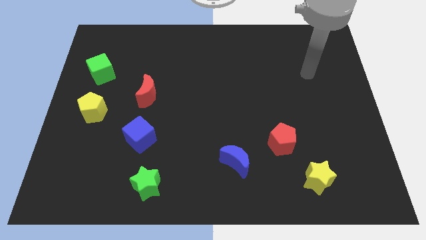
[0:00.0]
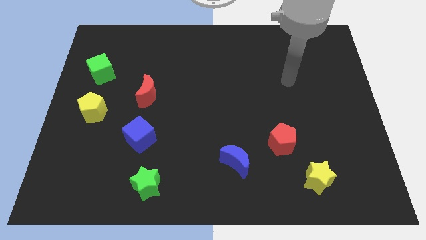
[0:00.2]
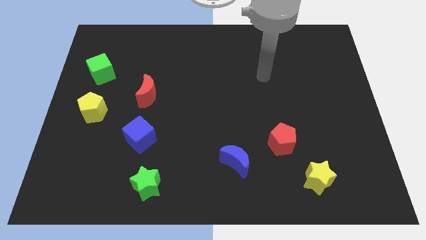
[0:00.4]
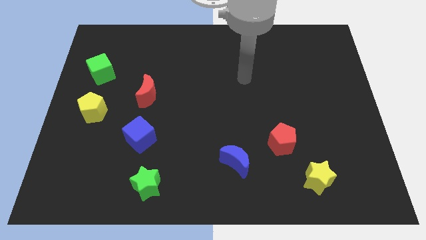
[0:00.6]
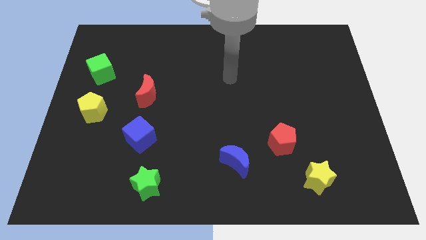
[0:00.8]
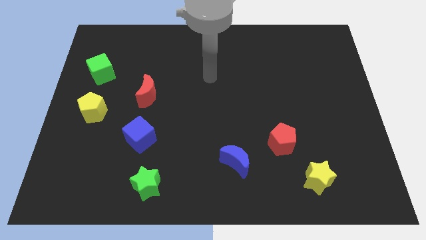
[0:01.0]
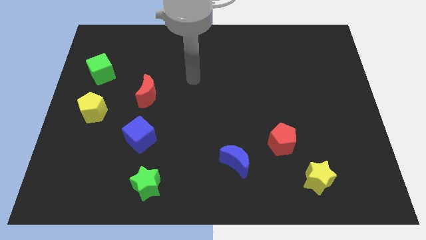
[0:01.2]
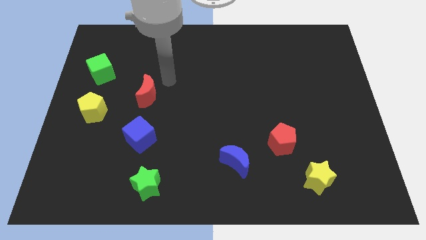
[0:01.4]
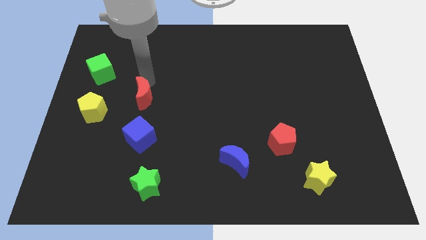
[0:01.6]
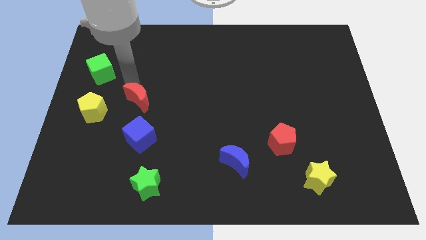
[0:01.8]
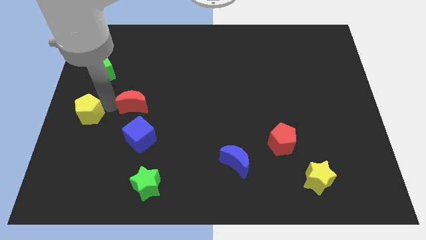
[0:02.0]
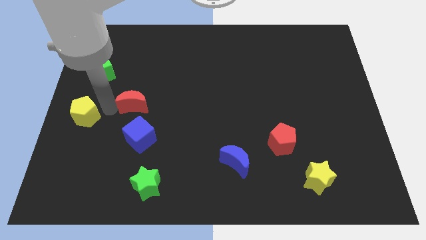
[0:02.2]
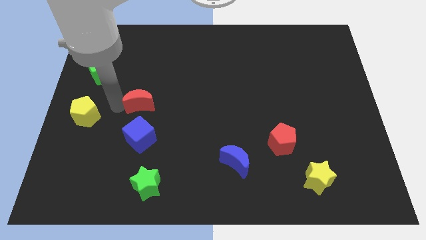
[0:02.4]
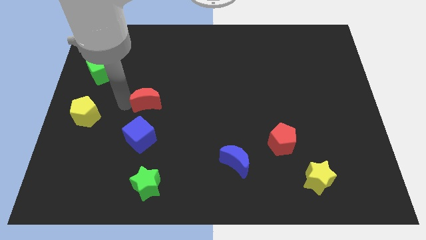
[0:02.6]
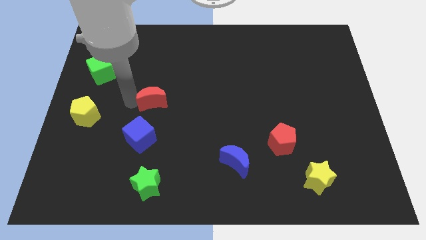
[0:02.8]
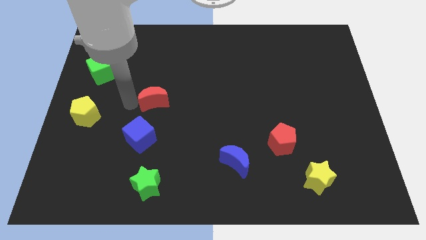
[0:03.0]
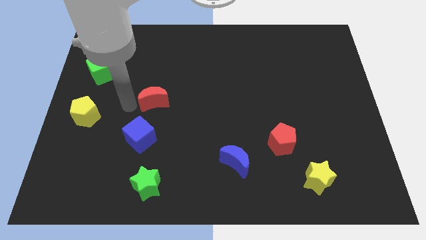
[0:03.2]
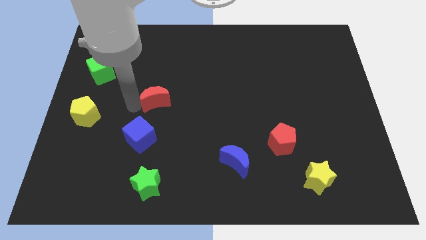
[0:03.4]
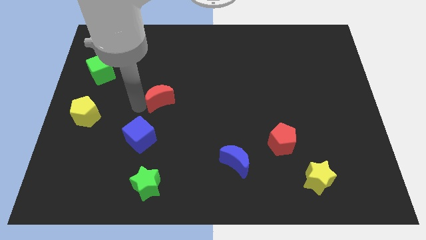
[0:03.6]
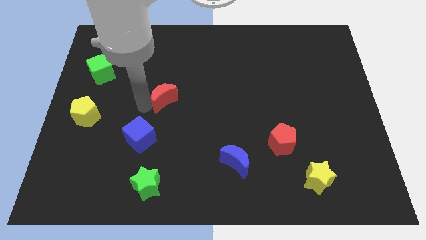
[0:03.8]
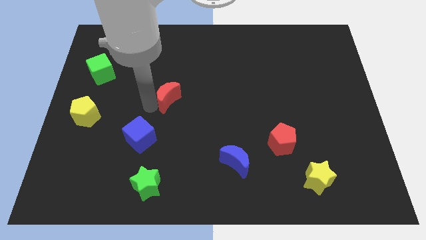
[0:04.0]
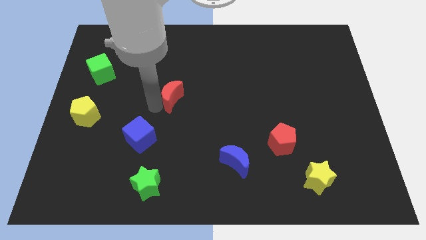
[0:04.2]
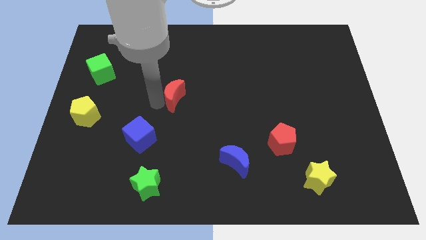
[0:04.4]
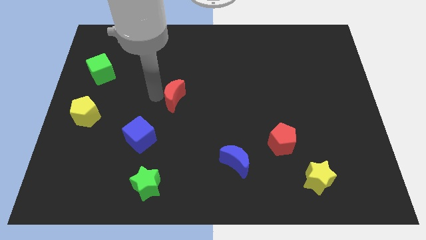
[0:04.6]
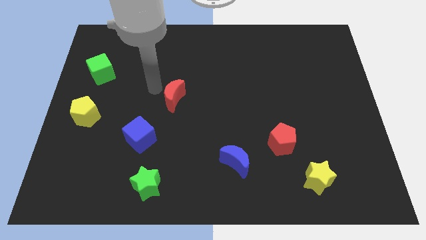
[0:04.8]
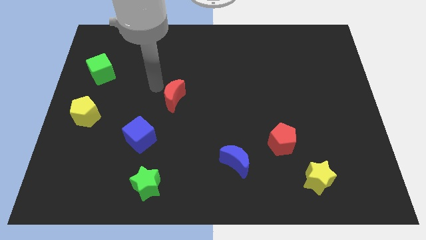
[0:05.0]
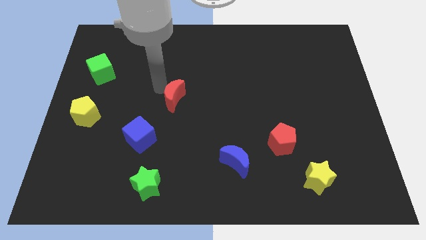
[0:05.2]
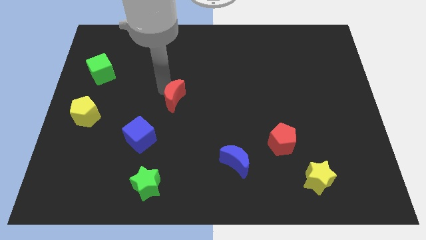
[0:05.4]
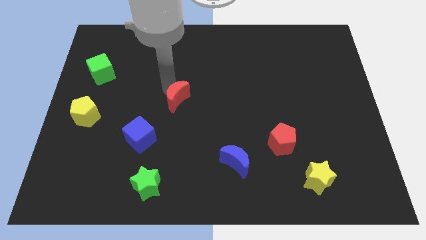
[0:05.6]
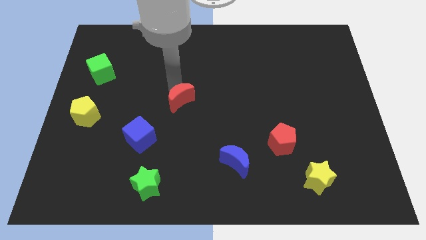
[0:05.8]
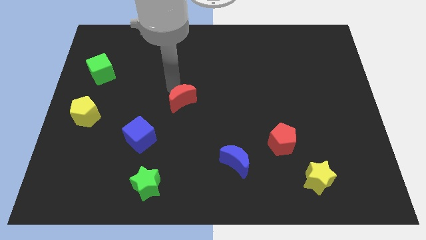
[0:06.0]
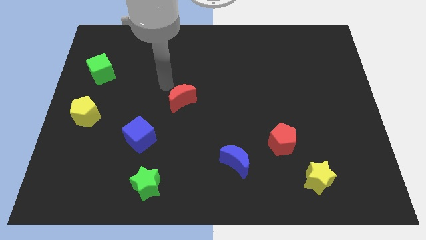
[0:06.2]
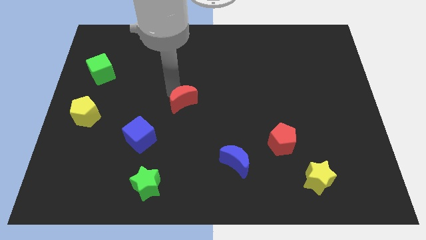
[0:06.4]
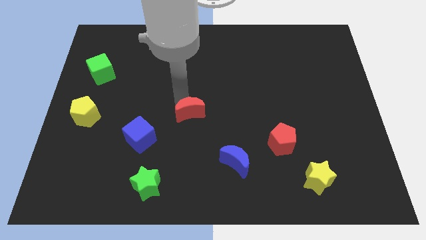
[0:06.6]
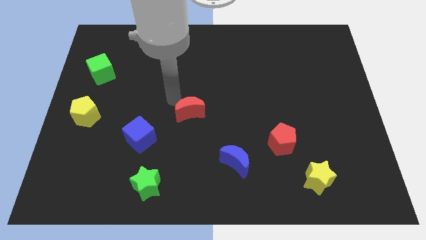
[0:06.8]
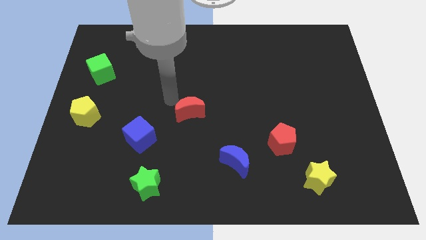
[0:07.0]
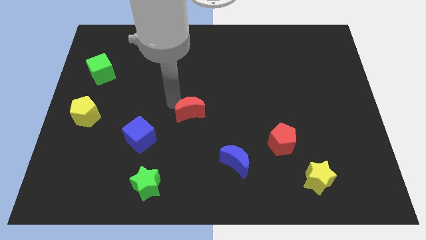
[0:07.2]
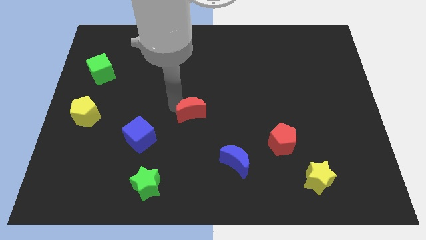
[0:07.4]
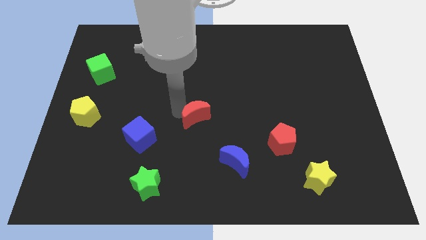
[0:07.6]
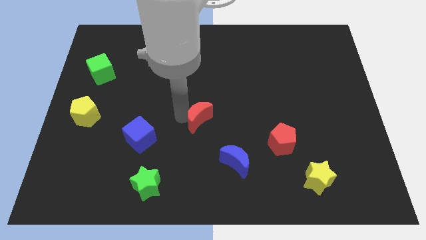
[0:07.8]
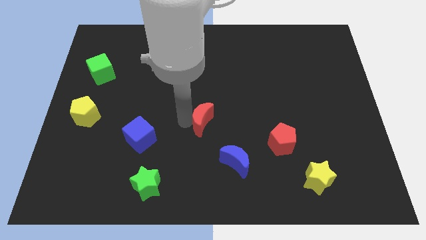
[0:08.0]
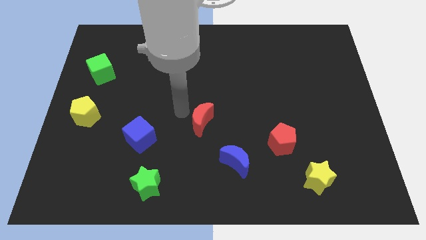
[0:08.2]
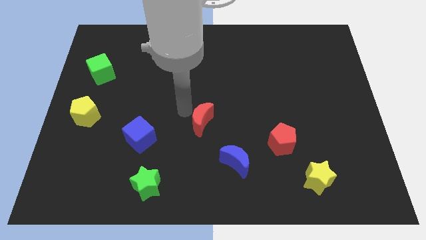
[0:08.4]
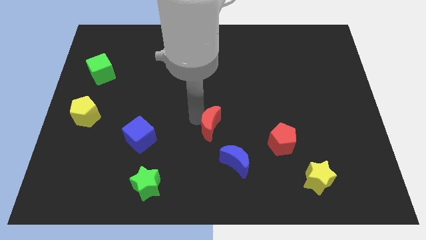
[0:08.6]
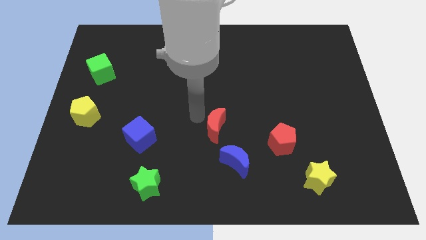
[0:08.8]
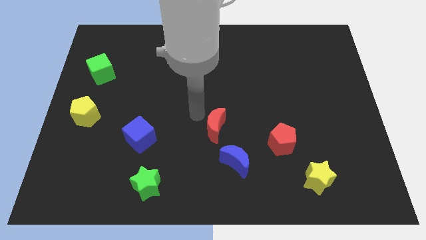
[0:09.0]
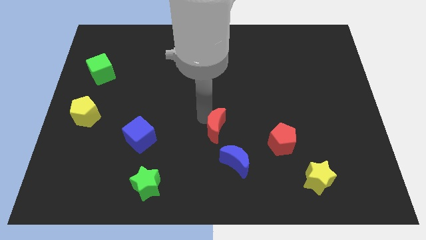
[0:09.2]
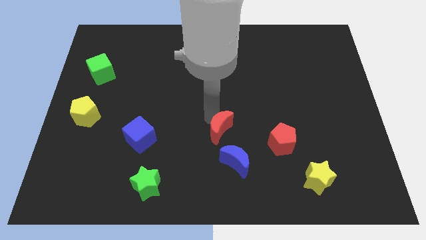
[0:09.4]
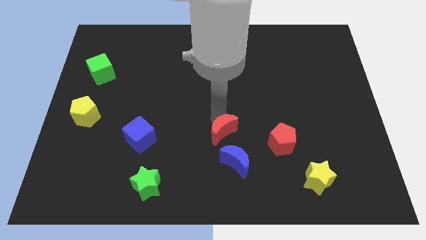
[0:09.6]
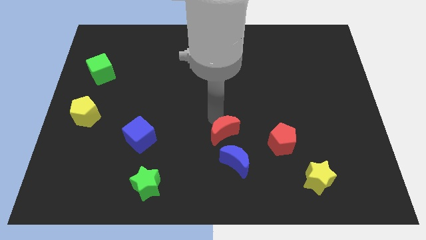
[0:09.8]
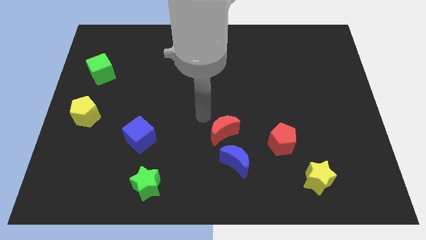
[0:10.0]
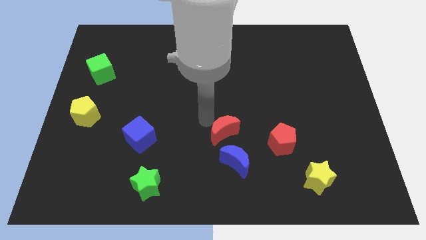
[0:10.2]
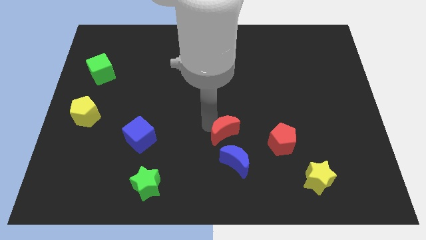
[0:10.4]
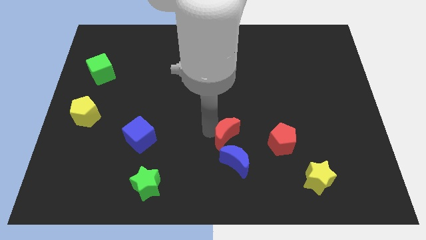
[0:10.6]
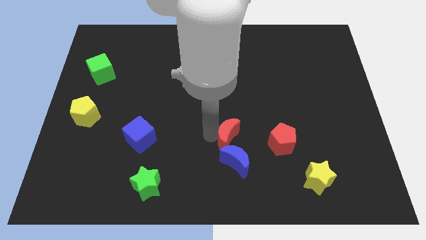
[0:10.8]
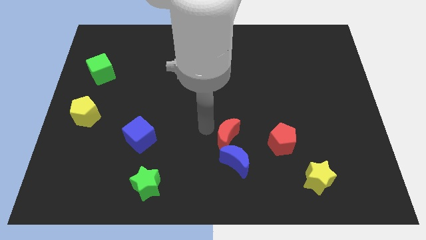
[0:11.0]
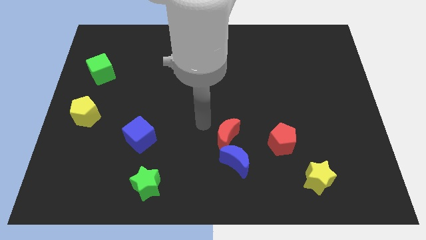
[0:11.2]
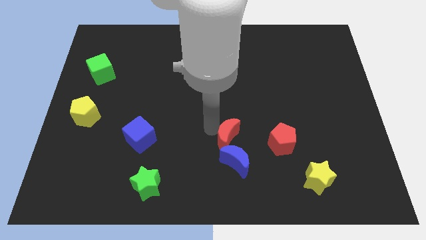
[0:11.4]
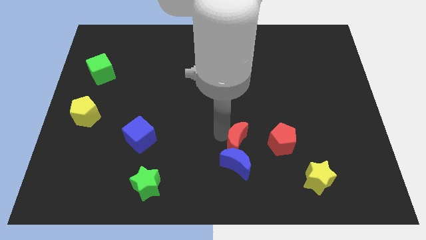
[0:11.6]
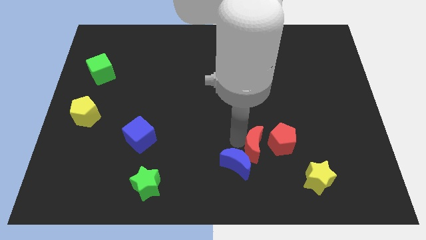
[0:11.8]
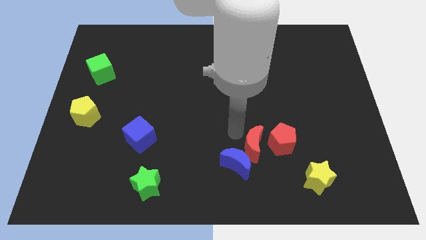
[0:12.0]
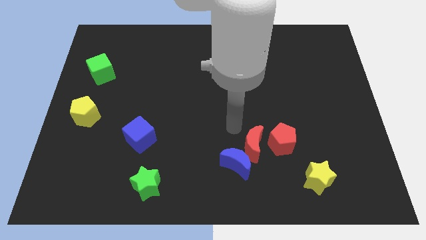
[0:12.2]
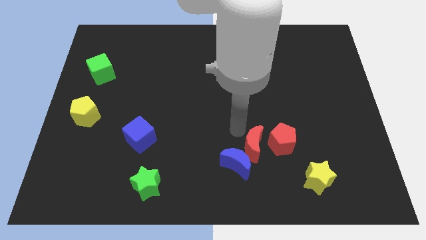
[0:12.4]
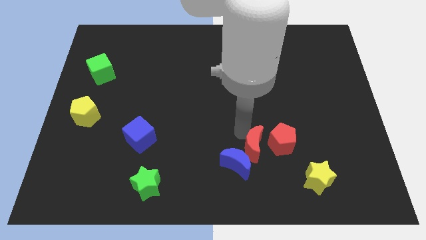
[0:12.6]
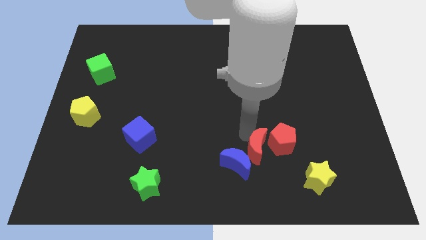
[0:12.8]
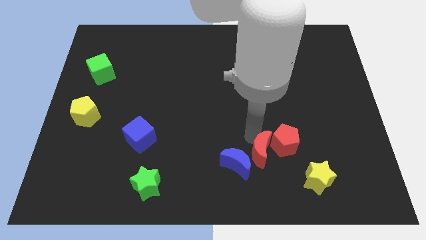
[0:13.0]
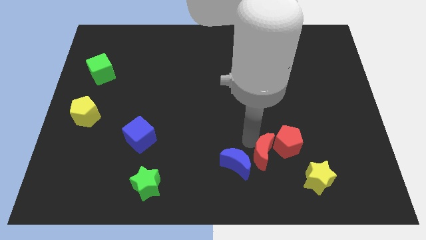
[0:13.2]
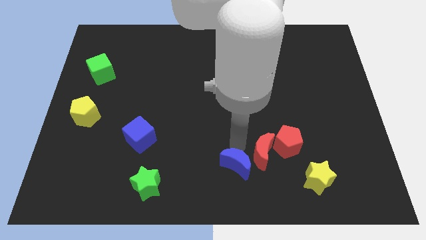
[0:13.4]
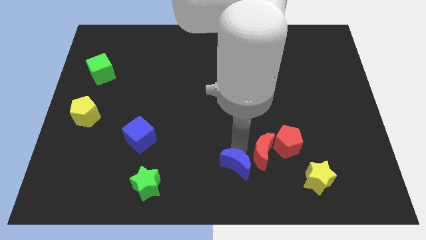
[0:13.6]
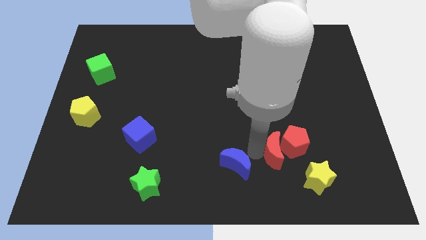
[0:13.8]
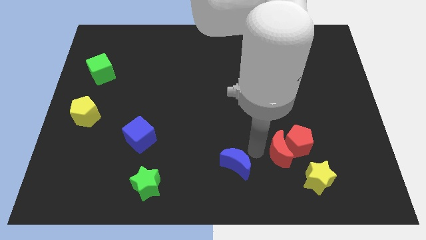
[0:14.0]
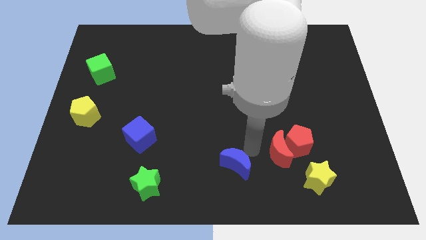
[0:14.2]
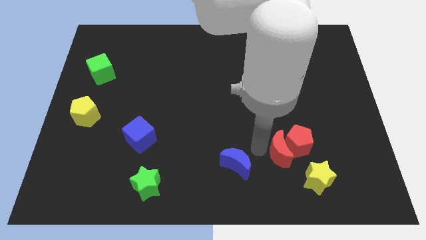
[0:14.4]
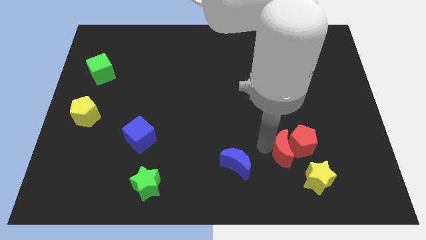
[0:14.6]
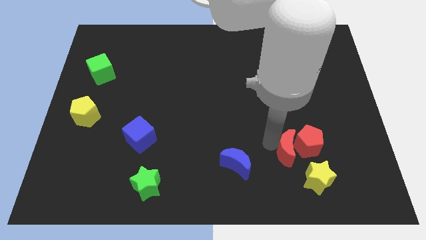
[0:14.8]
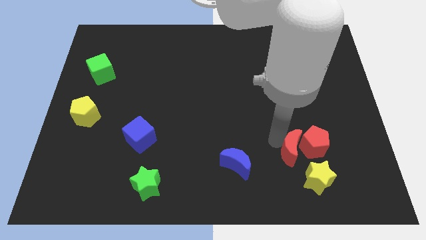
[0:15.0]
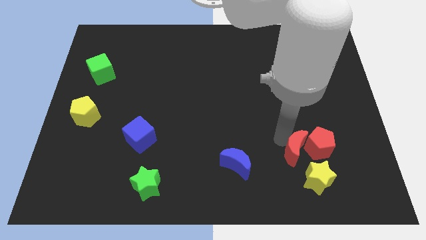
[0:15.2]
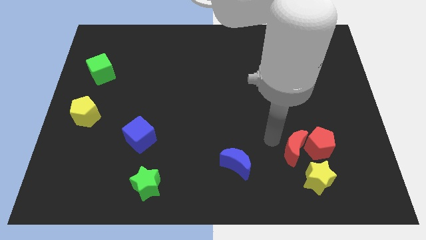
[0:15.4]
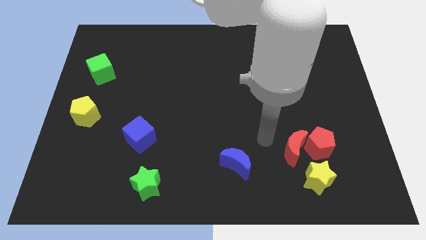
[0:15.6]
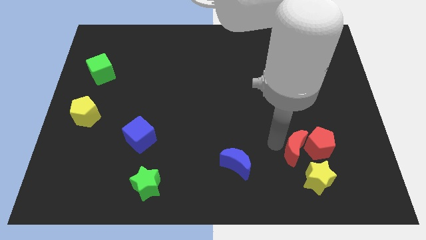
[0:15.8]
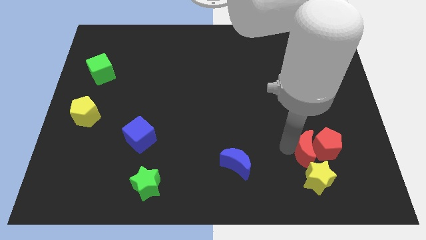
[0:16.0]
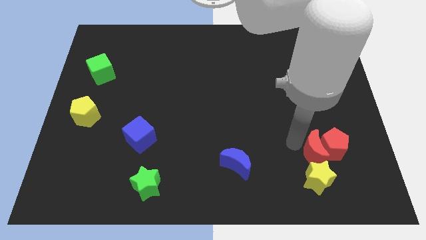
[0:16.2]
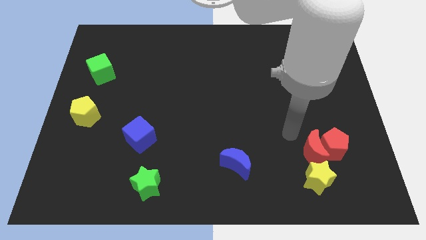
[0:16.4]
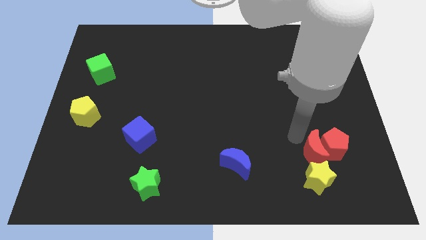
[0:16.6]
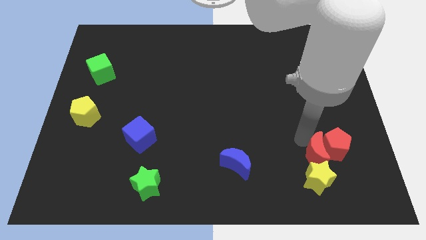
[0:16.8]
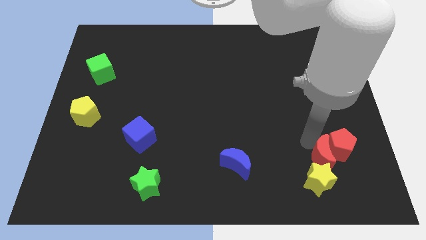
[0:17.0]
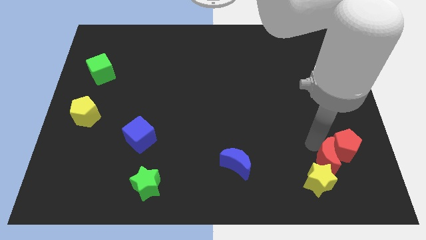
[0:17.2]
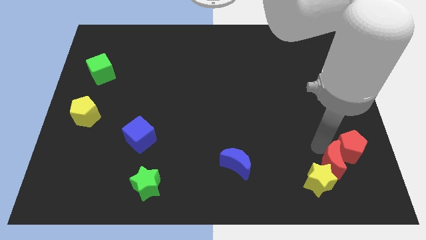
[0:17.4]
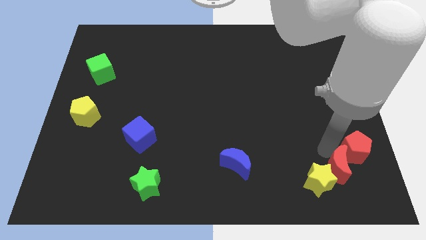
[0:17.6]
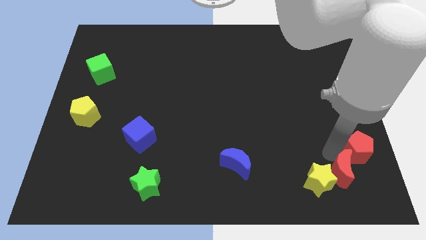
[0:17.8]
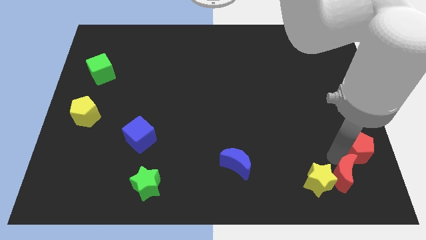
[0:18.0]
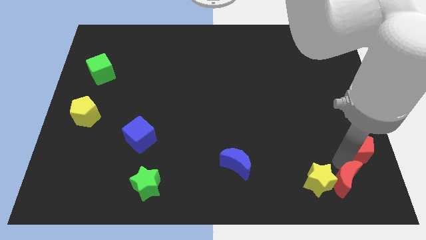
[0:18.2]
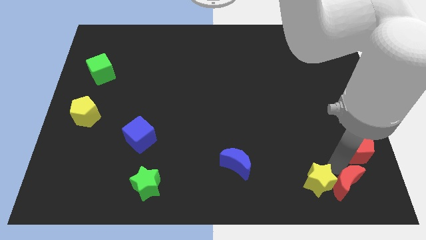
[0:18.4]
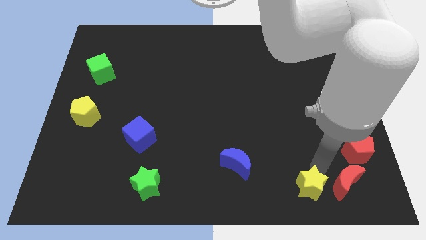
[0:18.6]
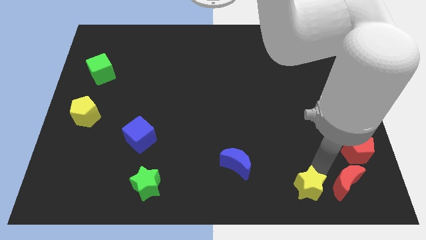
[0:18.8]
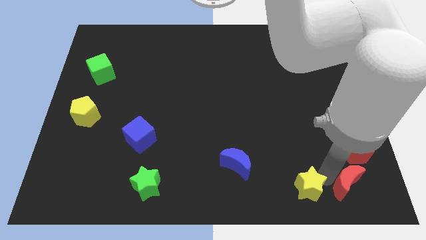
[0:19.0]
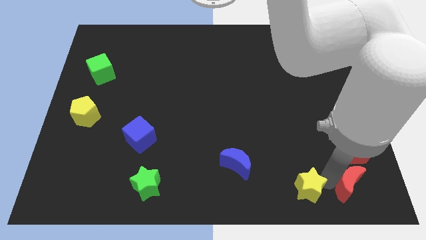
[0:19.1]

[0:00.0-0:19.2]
put the red moon to the bottom right corner
